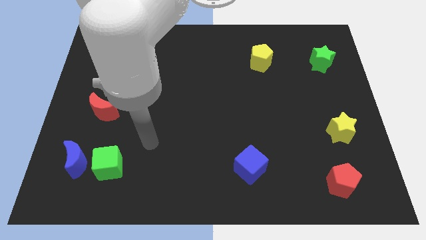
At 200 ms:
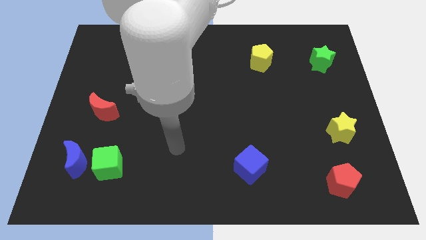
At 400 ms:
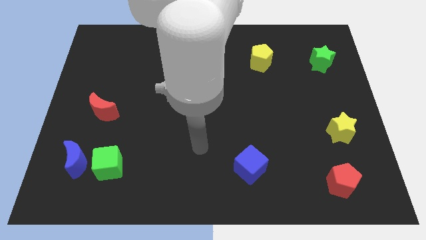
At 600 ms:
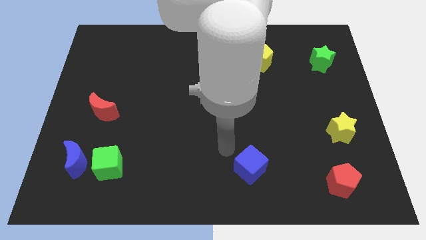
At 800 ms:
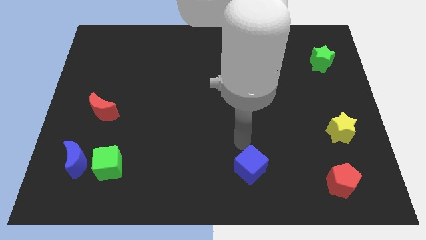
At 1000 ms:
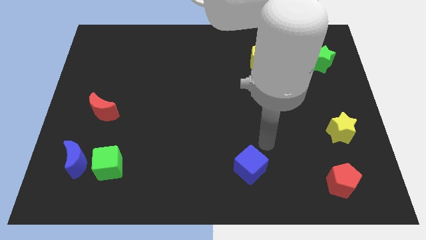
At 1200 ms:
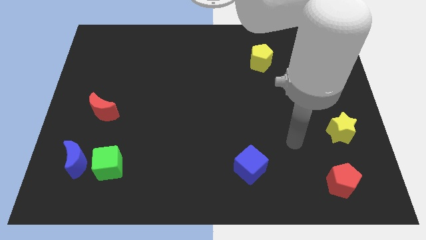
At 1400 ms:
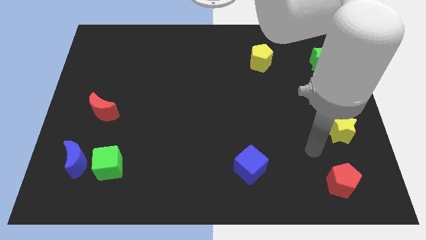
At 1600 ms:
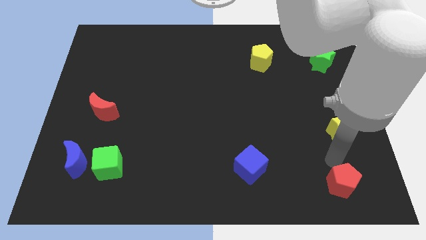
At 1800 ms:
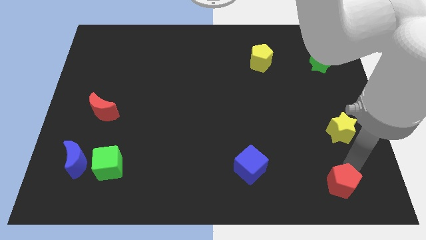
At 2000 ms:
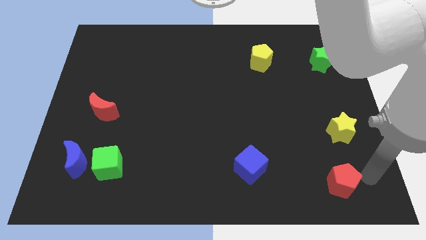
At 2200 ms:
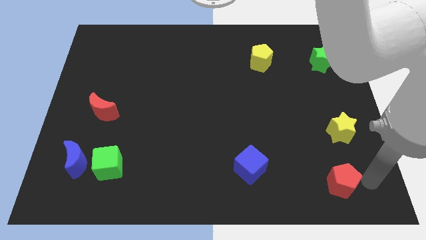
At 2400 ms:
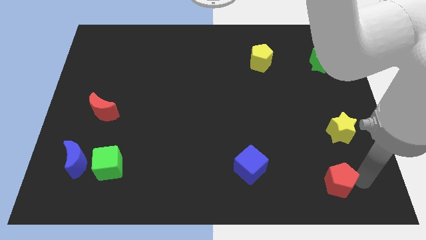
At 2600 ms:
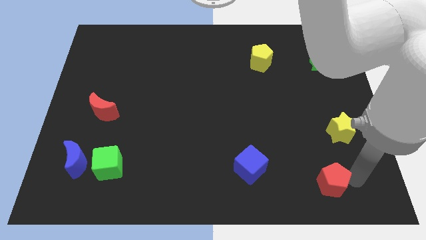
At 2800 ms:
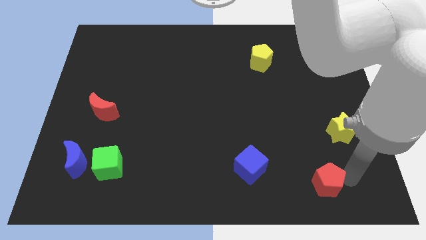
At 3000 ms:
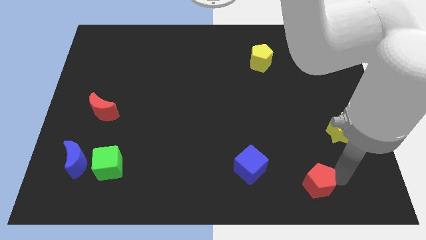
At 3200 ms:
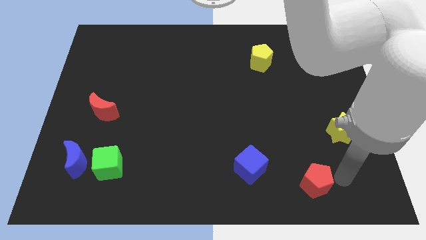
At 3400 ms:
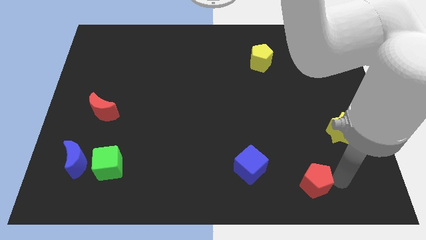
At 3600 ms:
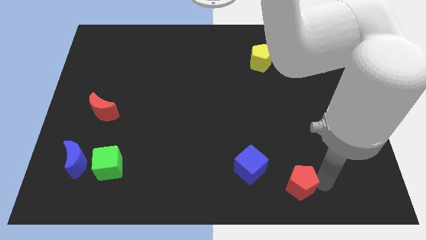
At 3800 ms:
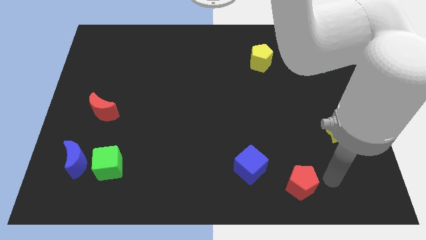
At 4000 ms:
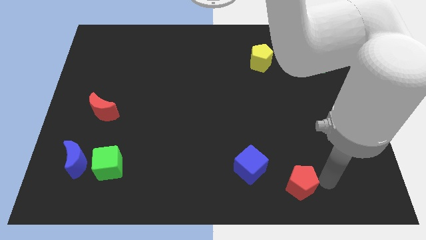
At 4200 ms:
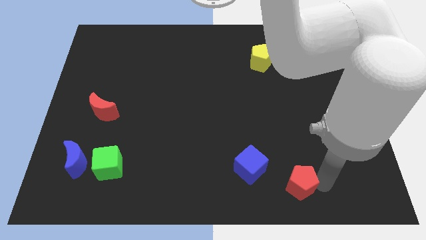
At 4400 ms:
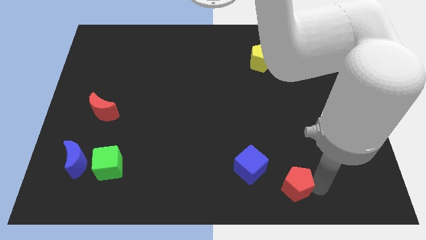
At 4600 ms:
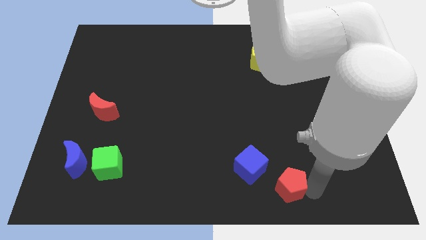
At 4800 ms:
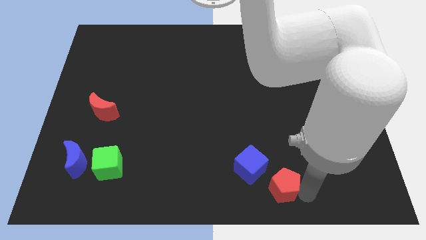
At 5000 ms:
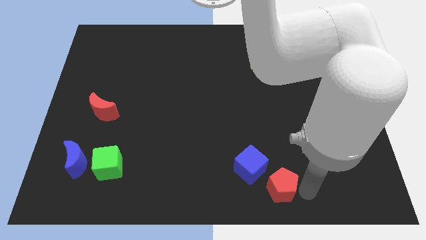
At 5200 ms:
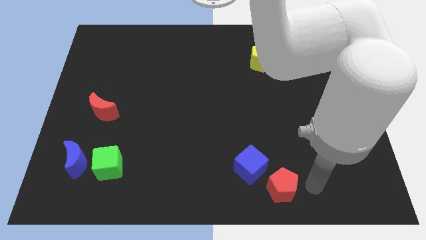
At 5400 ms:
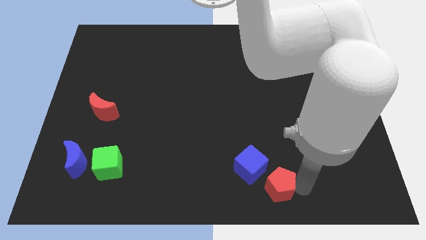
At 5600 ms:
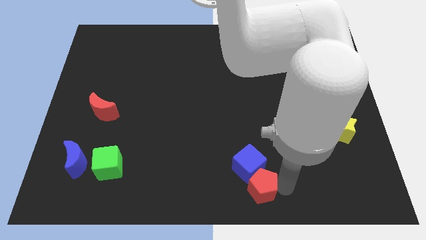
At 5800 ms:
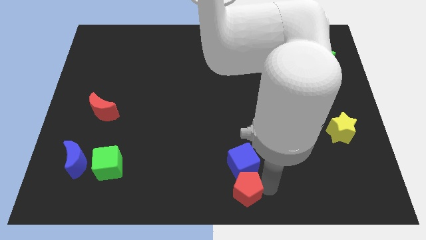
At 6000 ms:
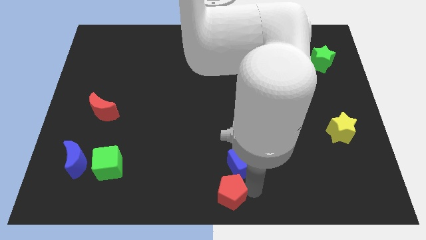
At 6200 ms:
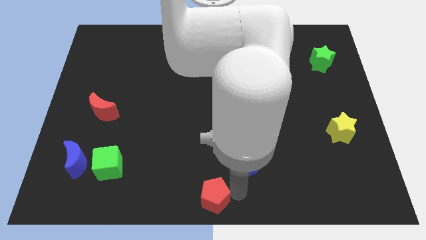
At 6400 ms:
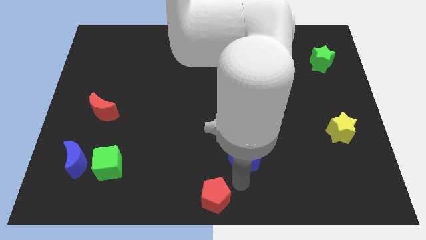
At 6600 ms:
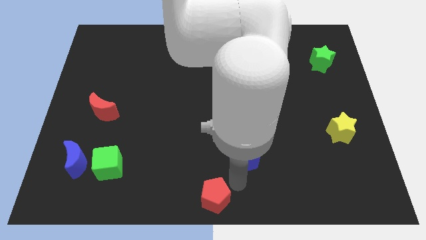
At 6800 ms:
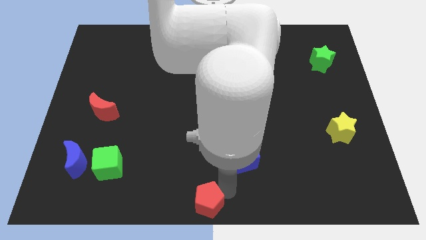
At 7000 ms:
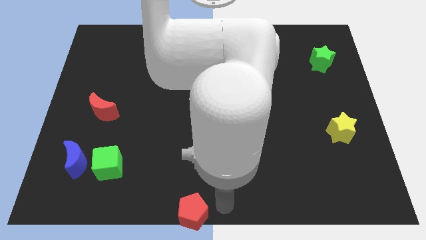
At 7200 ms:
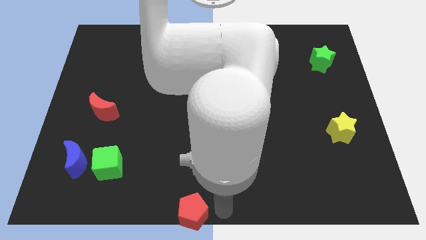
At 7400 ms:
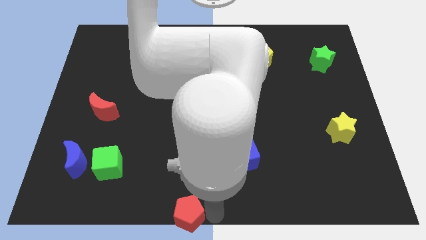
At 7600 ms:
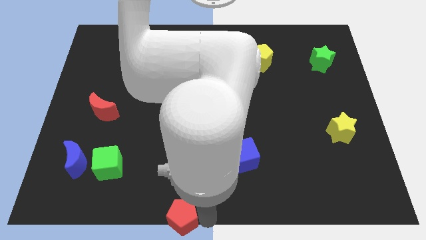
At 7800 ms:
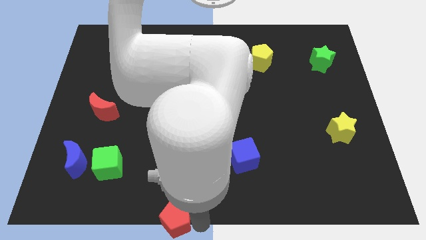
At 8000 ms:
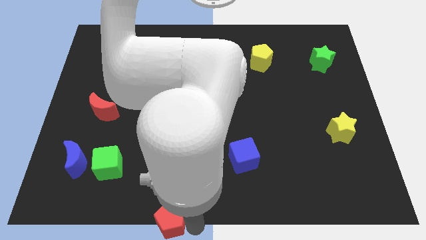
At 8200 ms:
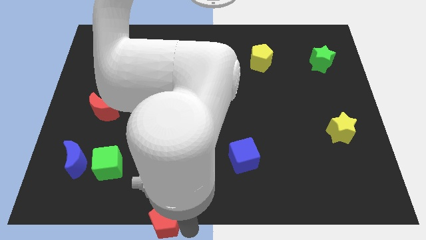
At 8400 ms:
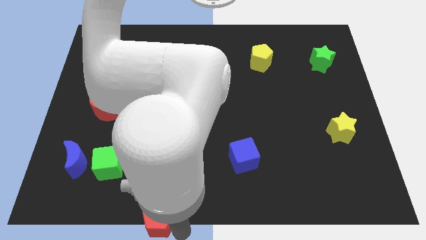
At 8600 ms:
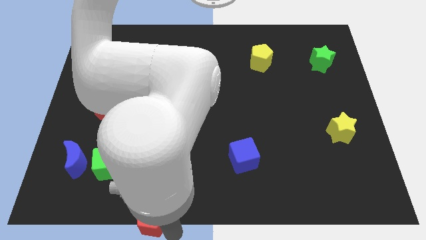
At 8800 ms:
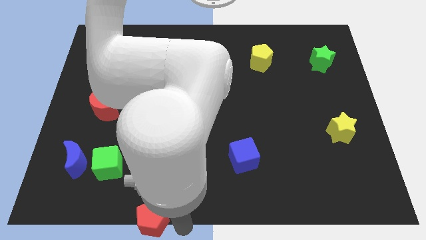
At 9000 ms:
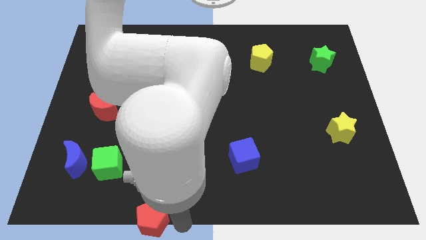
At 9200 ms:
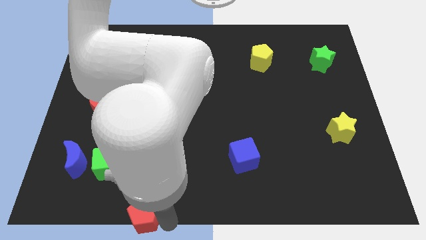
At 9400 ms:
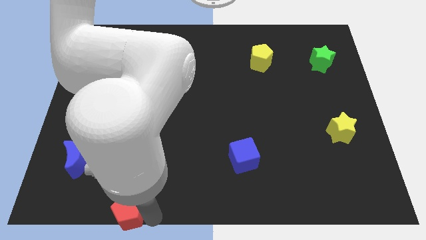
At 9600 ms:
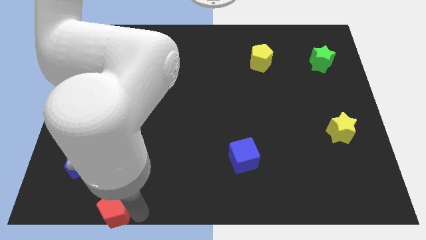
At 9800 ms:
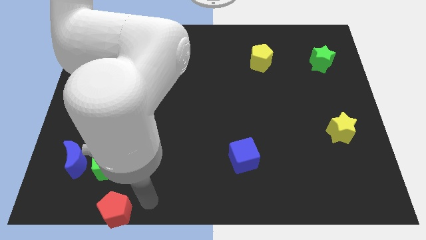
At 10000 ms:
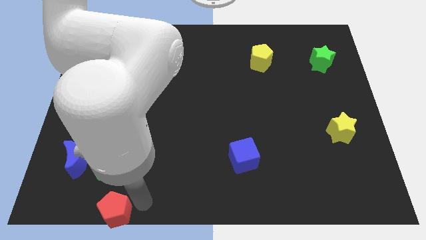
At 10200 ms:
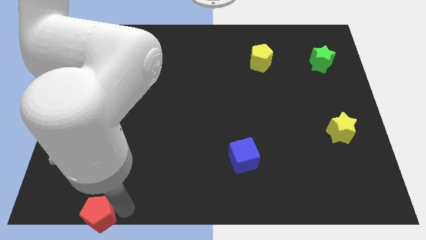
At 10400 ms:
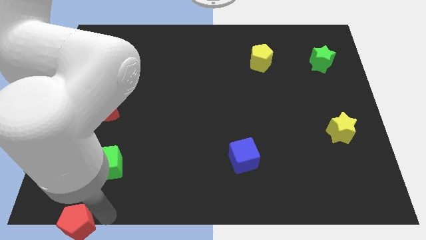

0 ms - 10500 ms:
move the red pentagon to the bottom left of the board

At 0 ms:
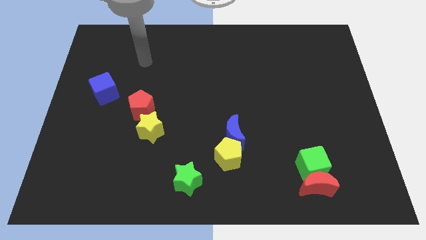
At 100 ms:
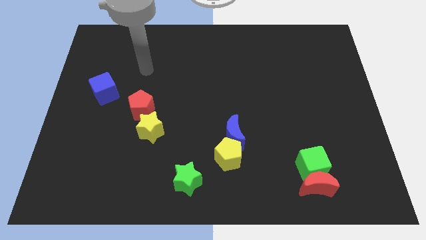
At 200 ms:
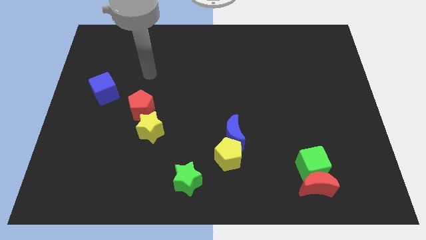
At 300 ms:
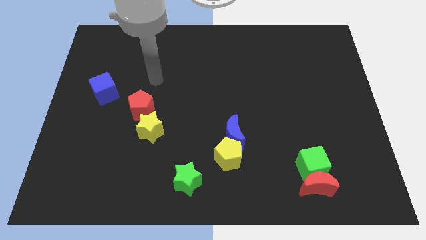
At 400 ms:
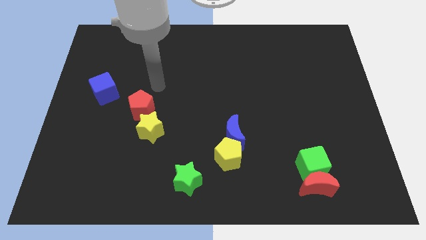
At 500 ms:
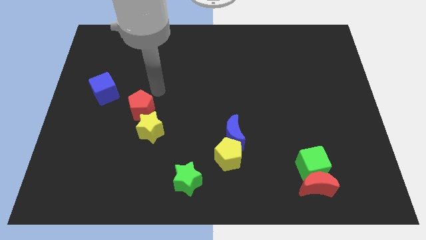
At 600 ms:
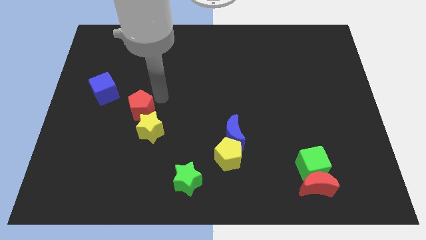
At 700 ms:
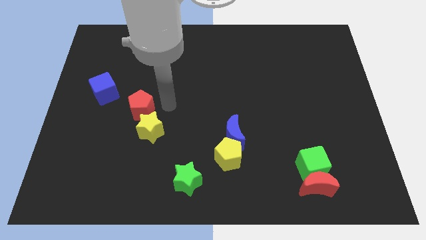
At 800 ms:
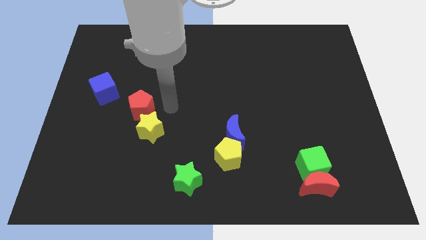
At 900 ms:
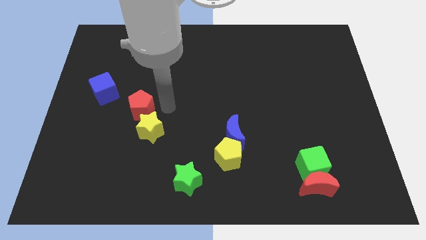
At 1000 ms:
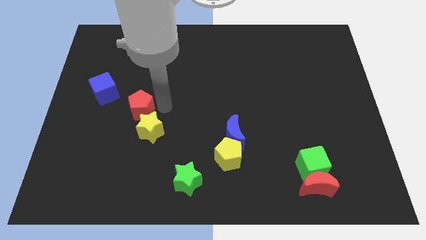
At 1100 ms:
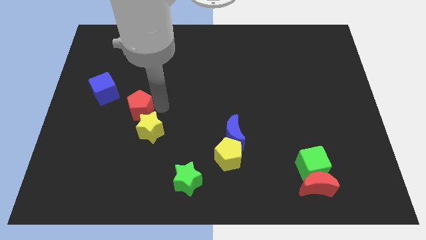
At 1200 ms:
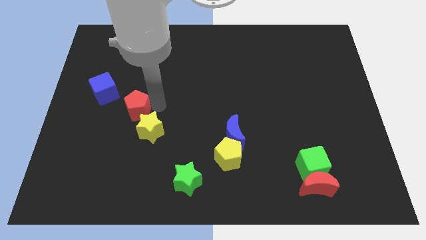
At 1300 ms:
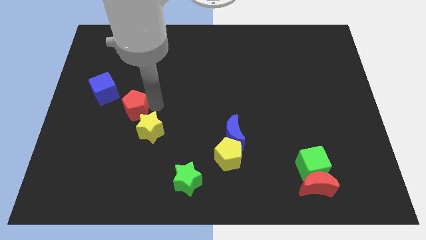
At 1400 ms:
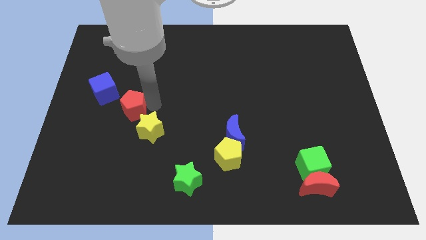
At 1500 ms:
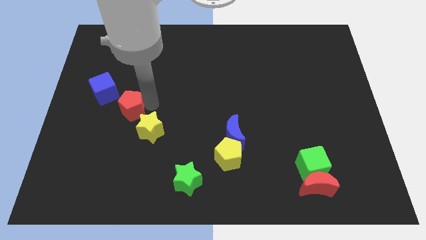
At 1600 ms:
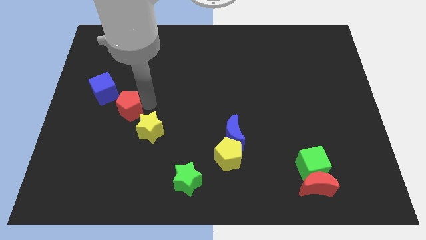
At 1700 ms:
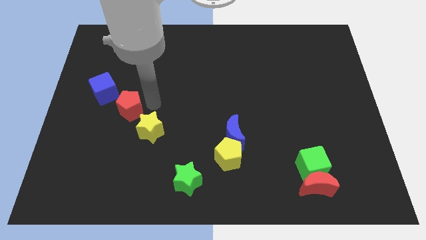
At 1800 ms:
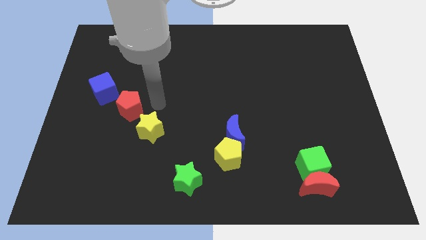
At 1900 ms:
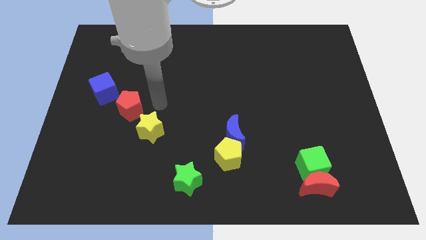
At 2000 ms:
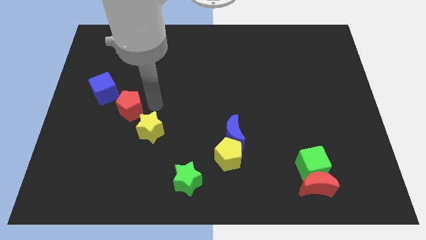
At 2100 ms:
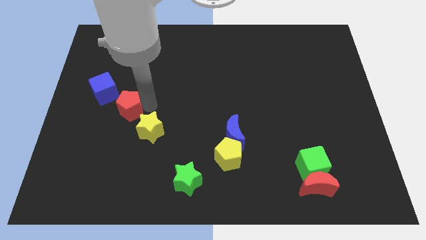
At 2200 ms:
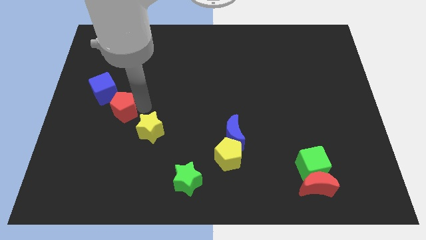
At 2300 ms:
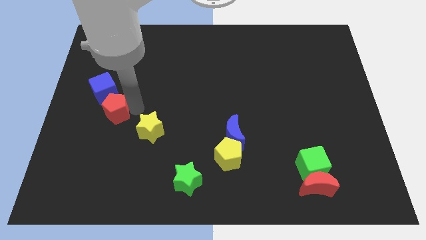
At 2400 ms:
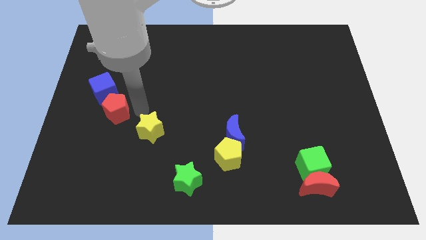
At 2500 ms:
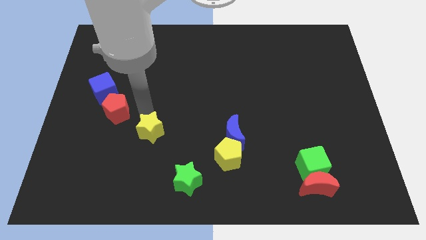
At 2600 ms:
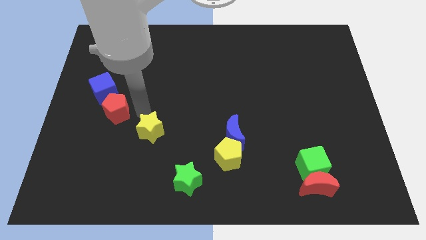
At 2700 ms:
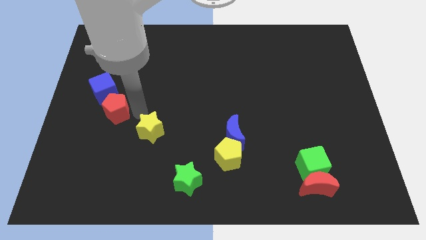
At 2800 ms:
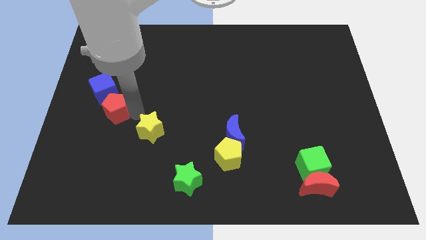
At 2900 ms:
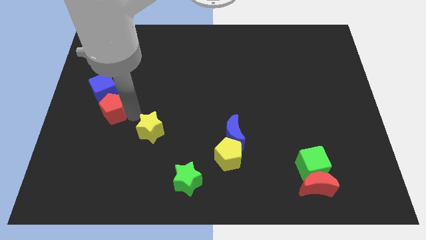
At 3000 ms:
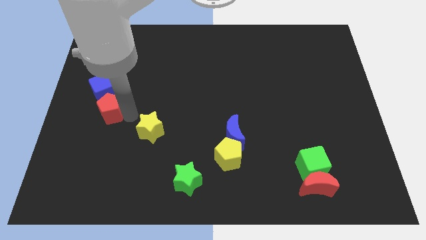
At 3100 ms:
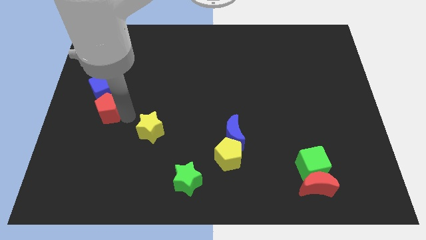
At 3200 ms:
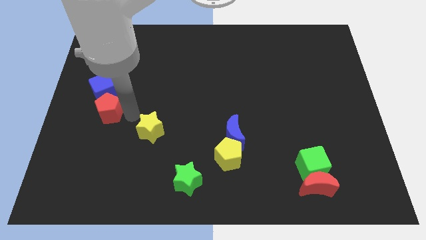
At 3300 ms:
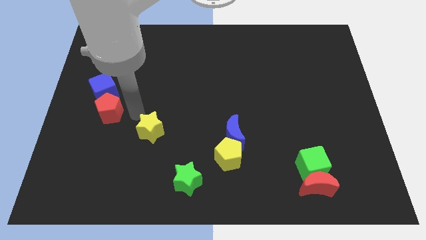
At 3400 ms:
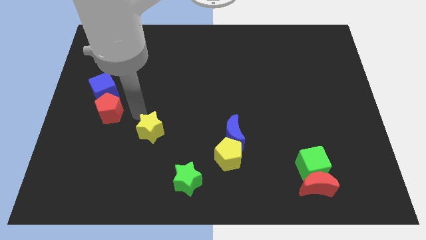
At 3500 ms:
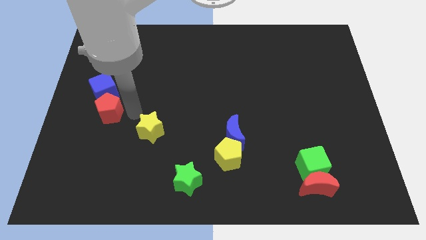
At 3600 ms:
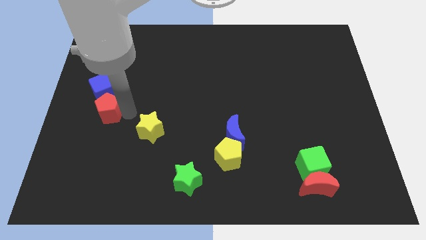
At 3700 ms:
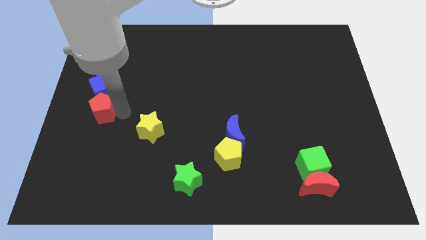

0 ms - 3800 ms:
move the red pentagon to the left side
